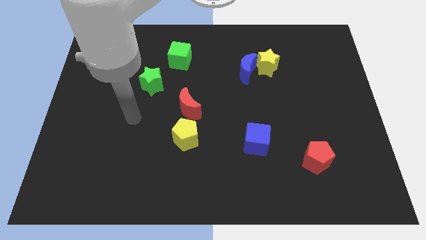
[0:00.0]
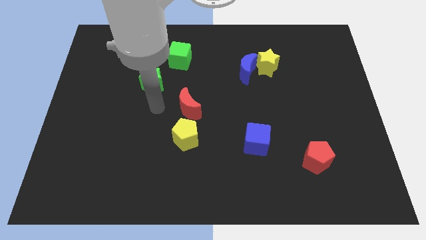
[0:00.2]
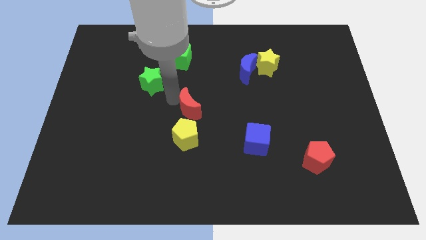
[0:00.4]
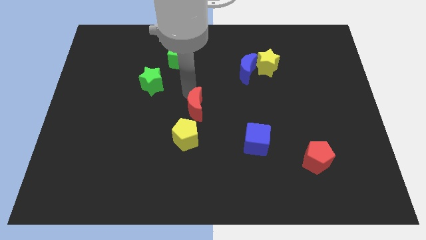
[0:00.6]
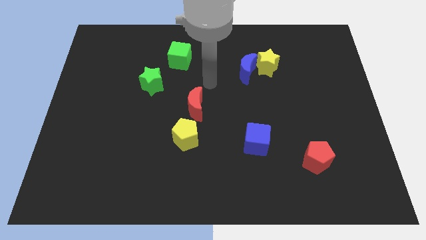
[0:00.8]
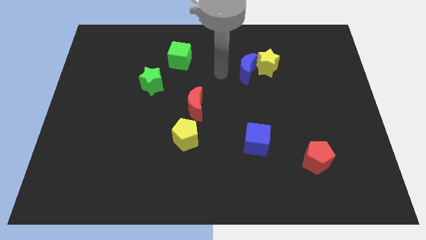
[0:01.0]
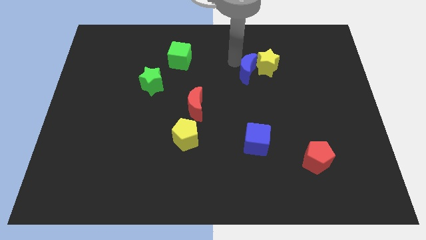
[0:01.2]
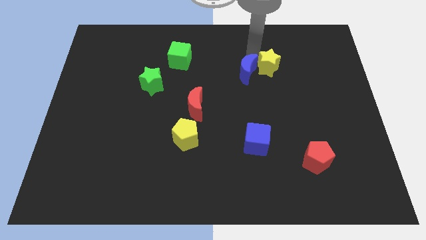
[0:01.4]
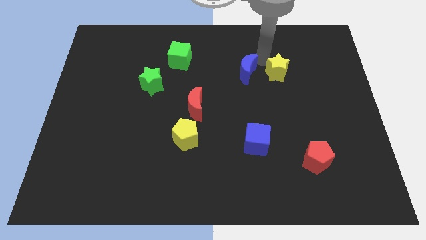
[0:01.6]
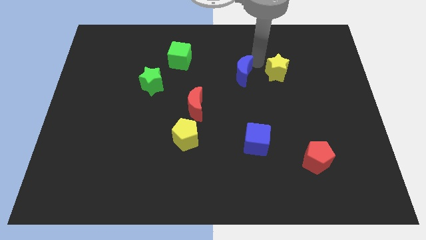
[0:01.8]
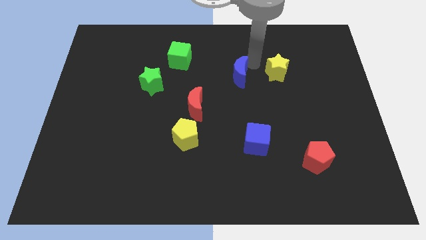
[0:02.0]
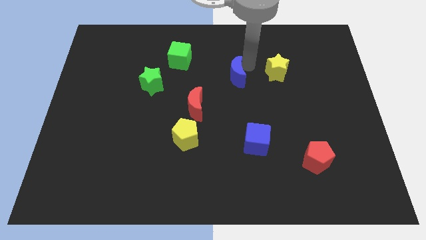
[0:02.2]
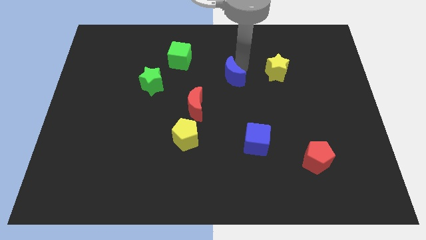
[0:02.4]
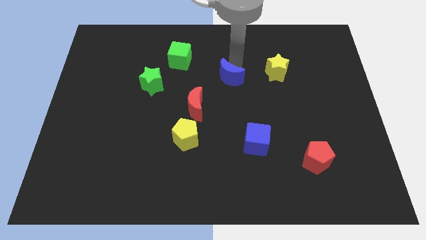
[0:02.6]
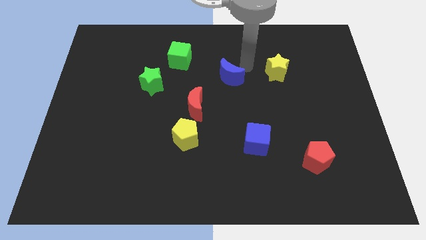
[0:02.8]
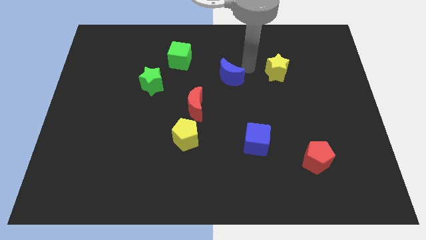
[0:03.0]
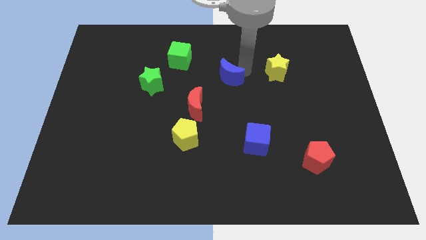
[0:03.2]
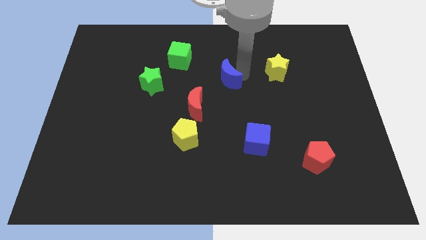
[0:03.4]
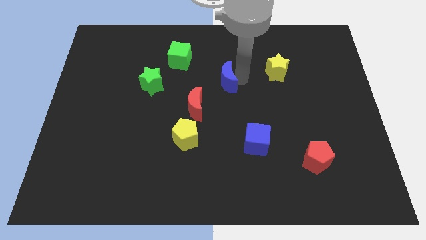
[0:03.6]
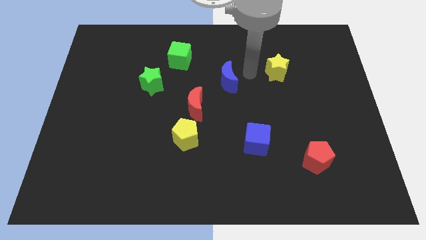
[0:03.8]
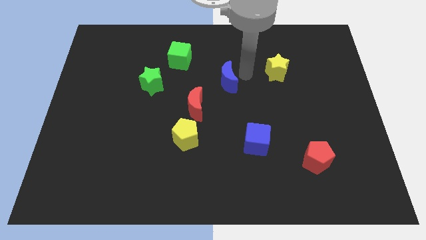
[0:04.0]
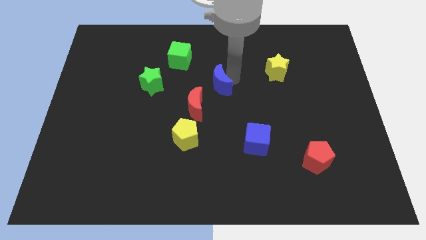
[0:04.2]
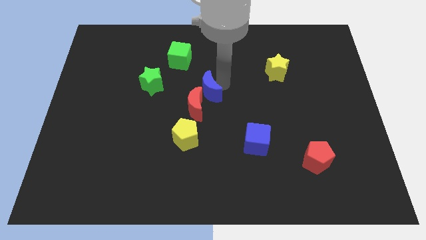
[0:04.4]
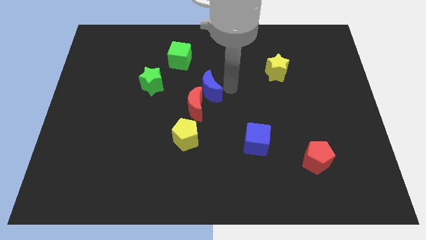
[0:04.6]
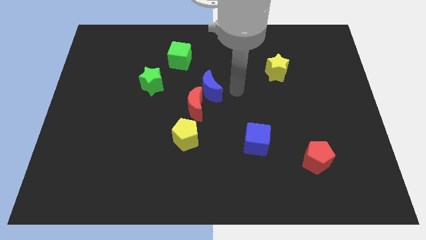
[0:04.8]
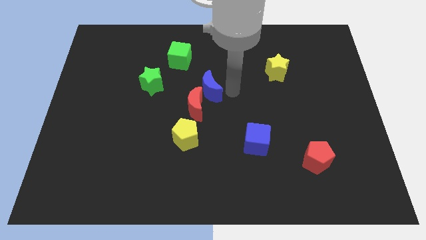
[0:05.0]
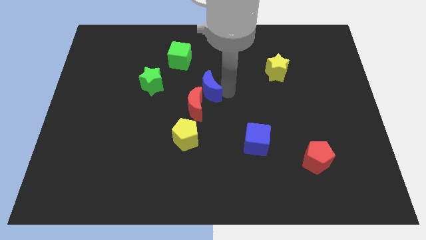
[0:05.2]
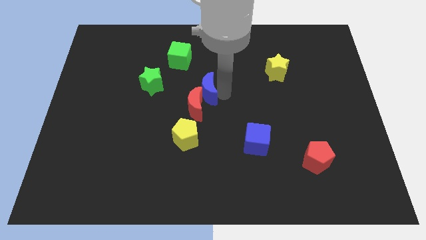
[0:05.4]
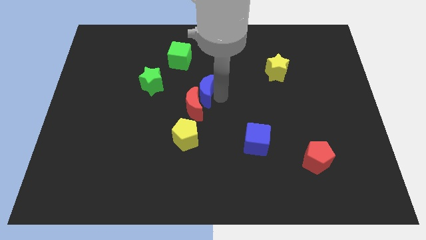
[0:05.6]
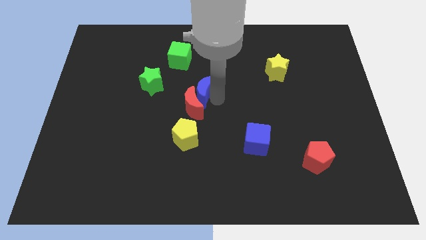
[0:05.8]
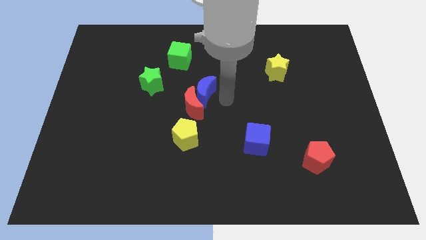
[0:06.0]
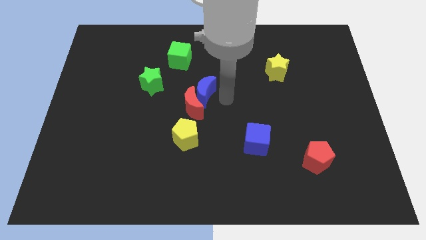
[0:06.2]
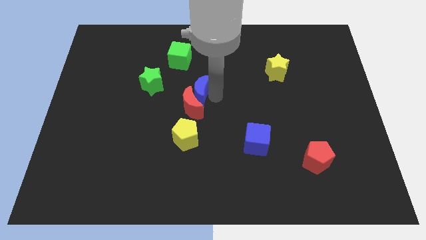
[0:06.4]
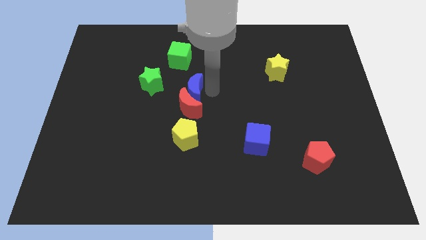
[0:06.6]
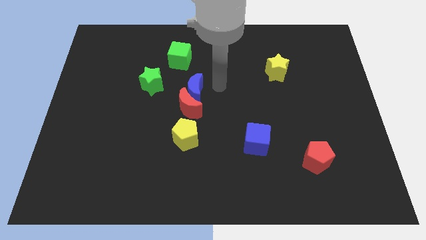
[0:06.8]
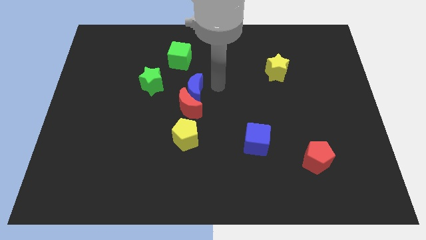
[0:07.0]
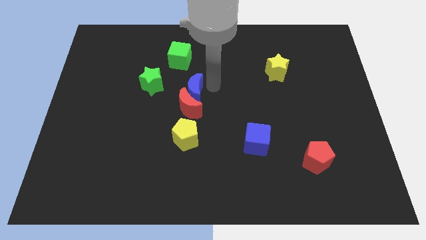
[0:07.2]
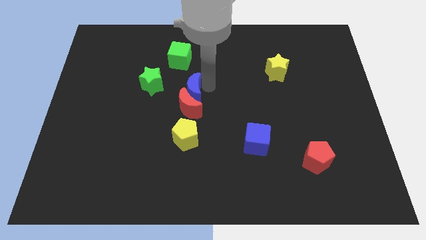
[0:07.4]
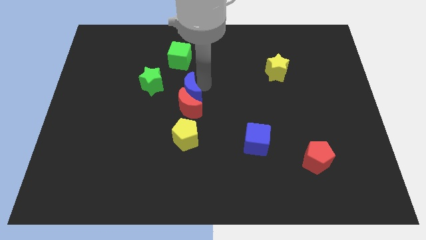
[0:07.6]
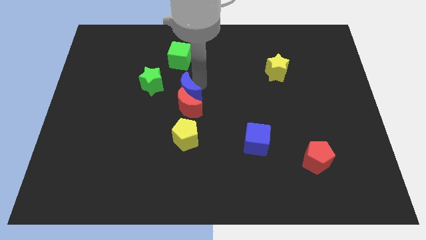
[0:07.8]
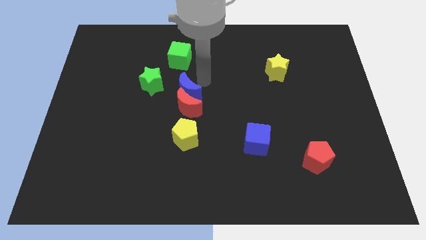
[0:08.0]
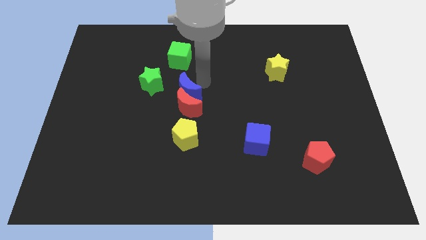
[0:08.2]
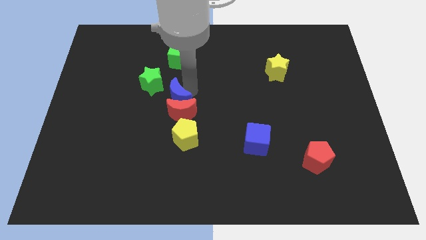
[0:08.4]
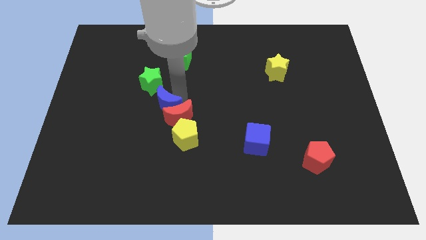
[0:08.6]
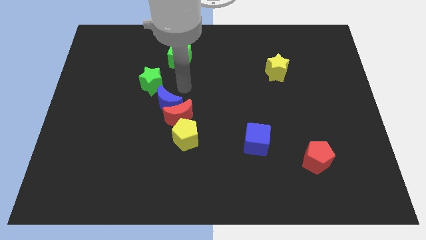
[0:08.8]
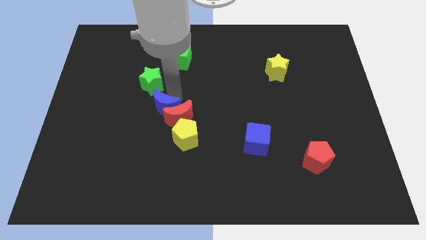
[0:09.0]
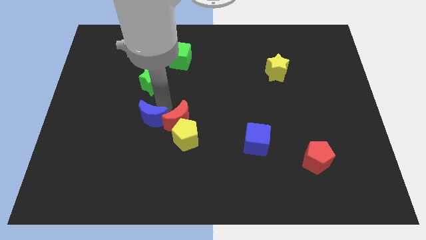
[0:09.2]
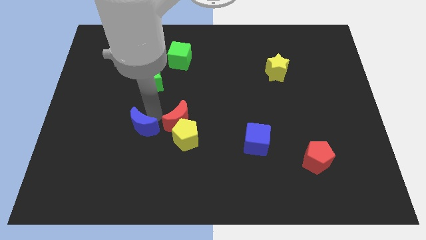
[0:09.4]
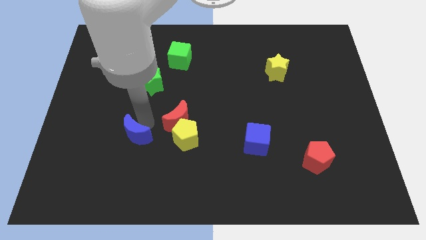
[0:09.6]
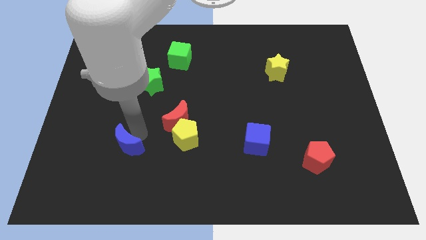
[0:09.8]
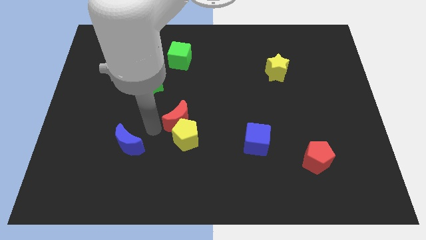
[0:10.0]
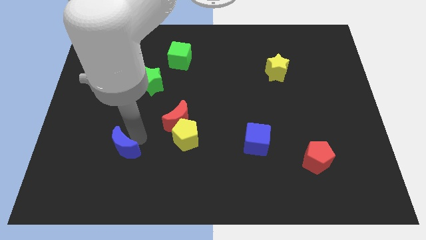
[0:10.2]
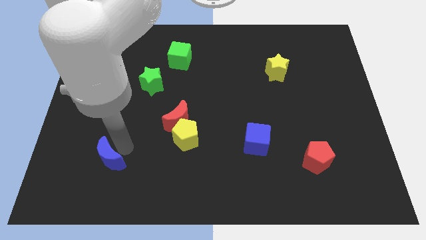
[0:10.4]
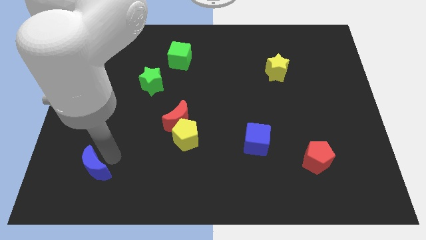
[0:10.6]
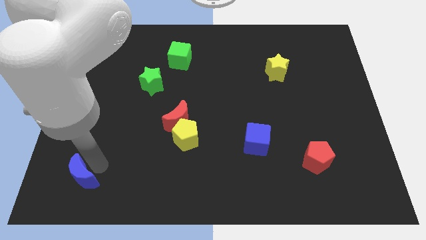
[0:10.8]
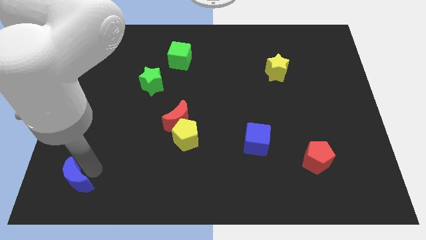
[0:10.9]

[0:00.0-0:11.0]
put the blue moon to the bottom left

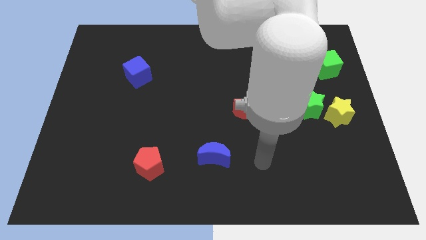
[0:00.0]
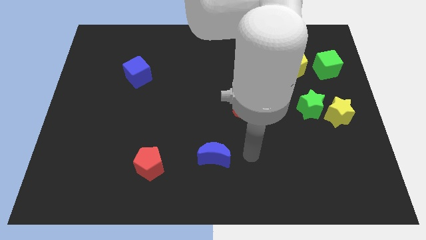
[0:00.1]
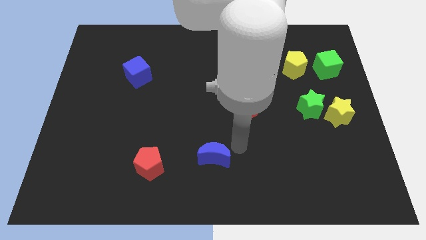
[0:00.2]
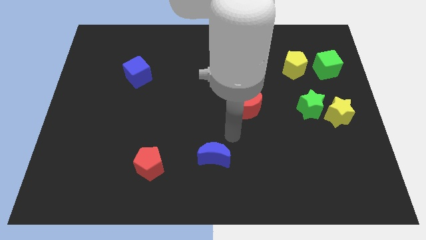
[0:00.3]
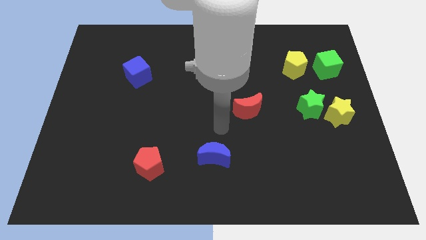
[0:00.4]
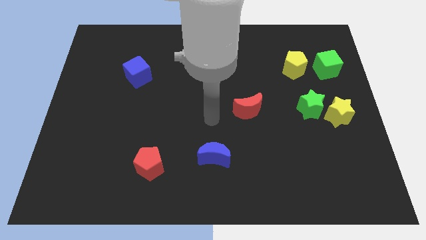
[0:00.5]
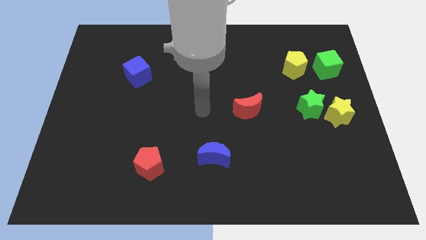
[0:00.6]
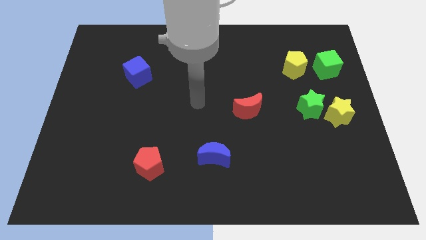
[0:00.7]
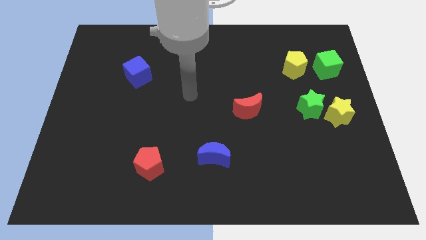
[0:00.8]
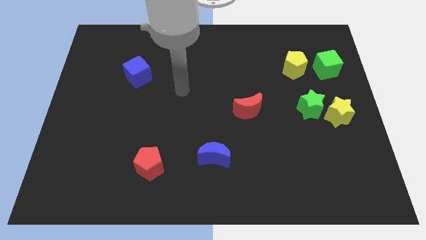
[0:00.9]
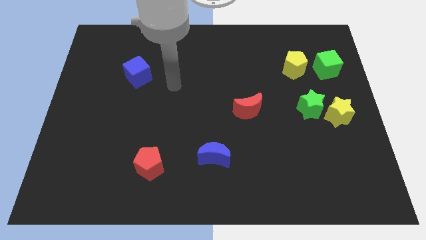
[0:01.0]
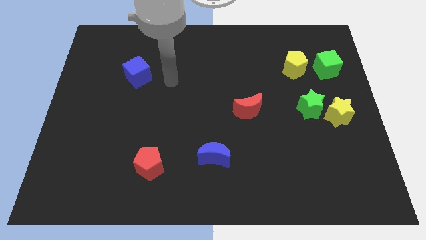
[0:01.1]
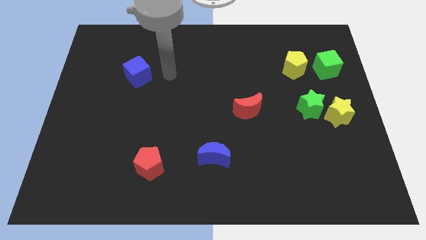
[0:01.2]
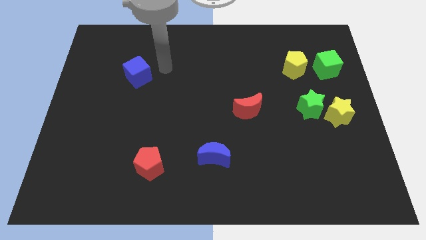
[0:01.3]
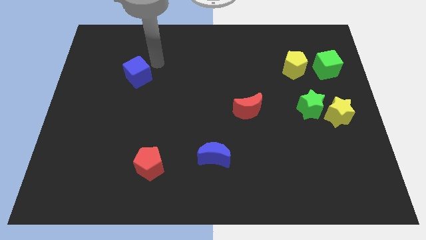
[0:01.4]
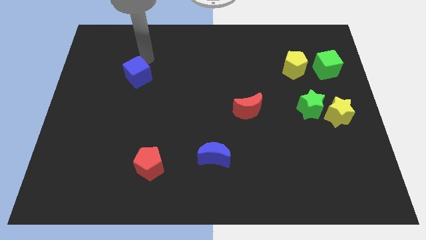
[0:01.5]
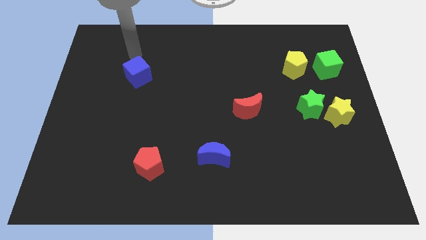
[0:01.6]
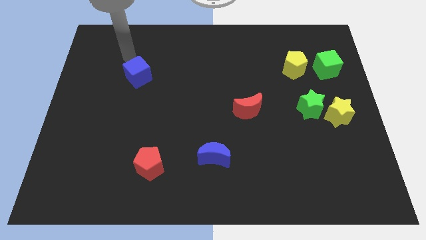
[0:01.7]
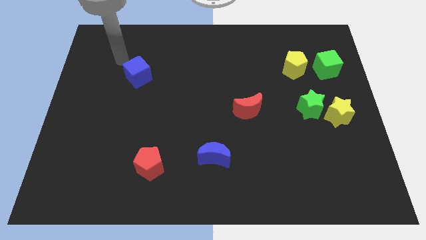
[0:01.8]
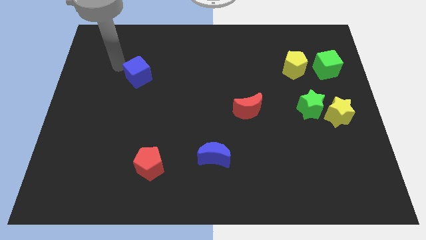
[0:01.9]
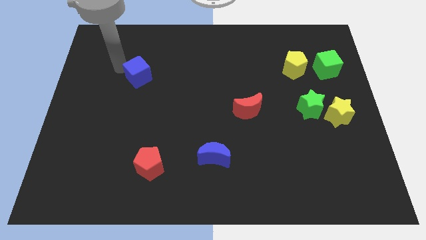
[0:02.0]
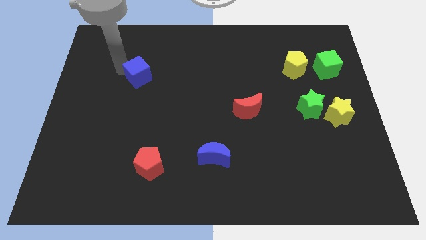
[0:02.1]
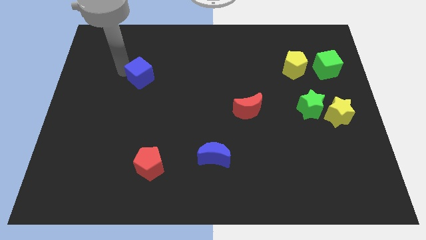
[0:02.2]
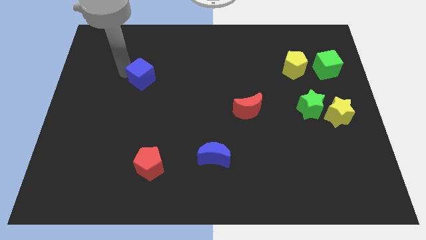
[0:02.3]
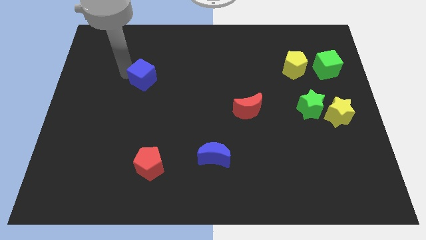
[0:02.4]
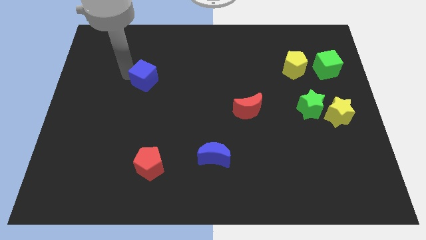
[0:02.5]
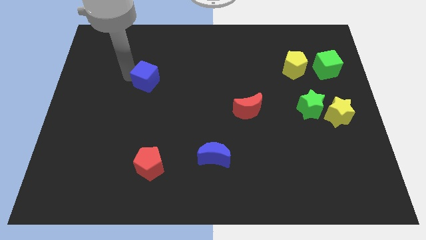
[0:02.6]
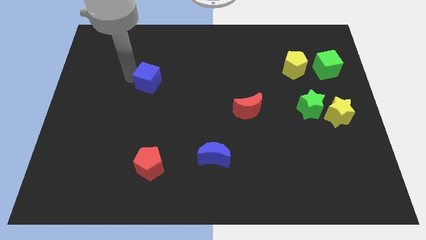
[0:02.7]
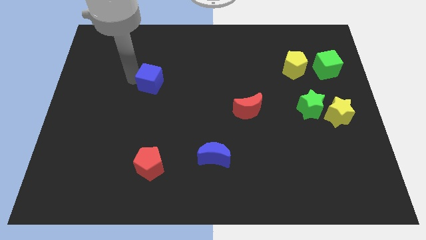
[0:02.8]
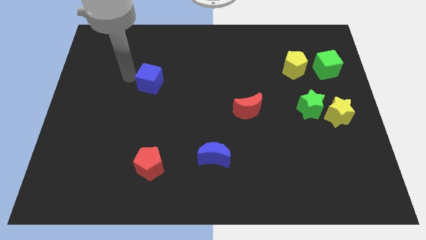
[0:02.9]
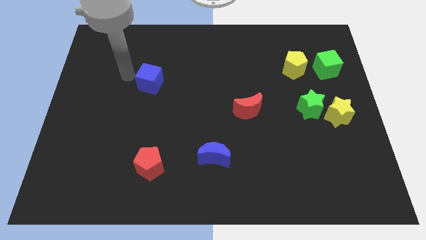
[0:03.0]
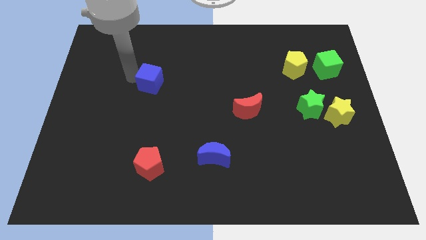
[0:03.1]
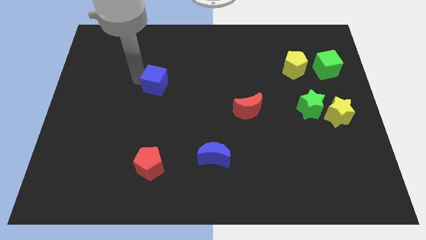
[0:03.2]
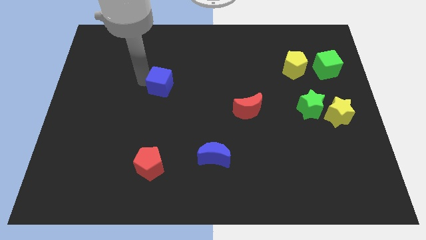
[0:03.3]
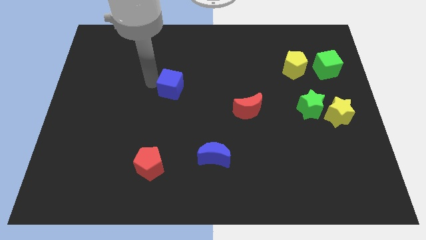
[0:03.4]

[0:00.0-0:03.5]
put the blue cube to the middle of the board
